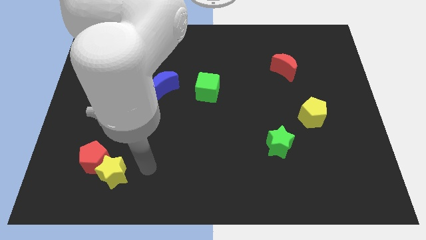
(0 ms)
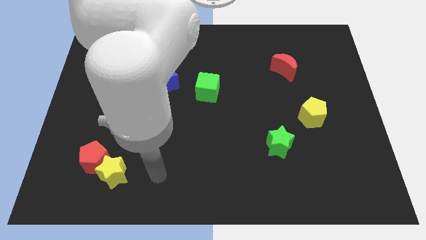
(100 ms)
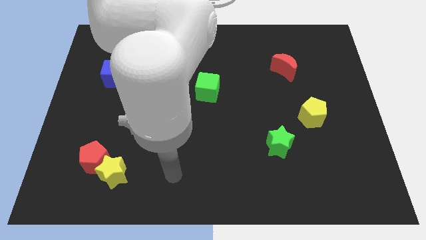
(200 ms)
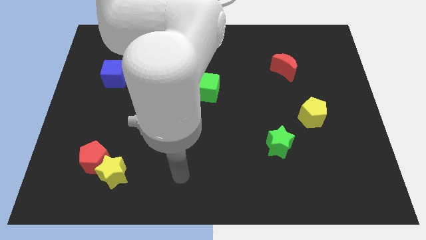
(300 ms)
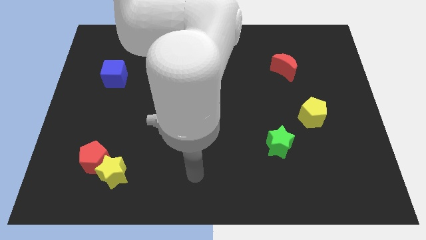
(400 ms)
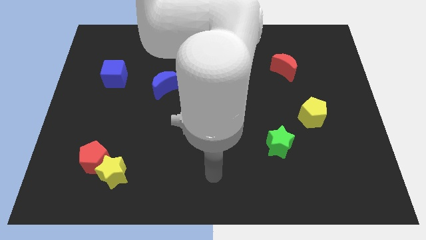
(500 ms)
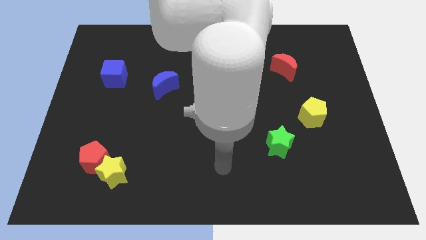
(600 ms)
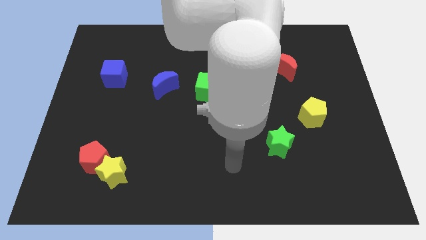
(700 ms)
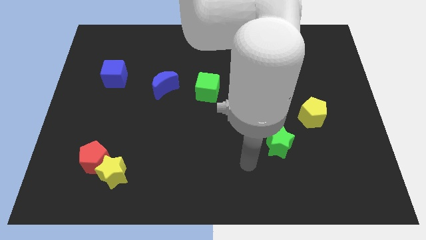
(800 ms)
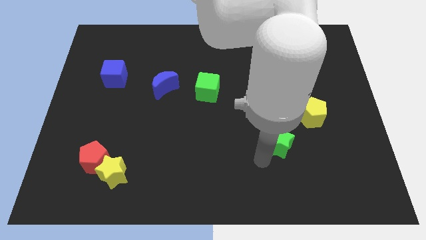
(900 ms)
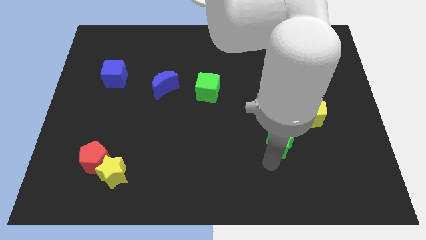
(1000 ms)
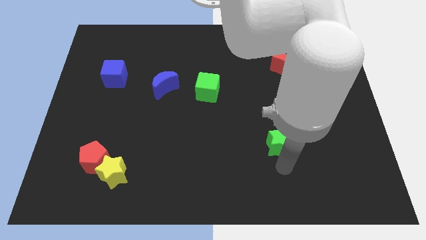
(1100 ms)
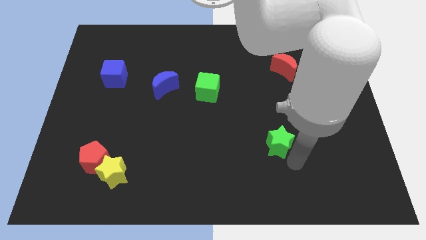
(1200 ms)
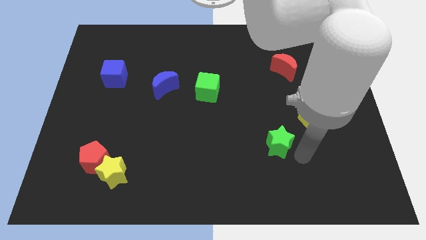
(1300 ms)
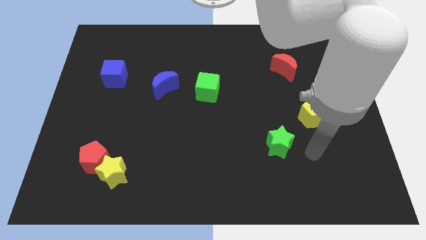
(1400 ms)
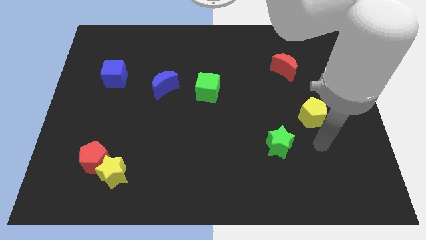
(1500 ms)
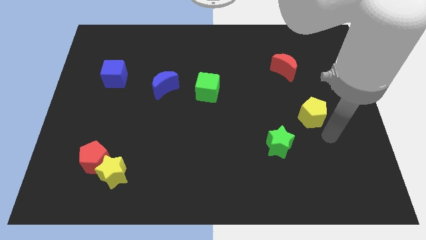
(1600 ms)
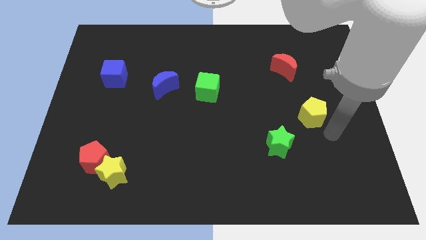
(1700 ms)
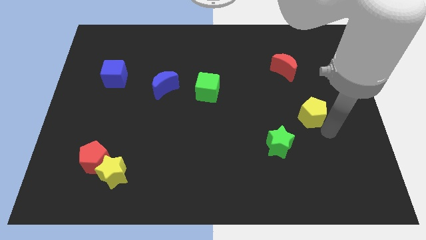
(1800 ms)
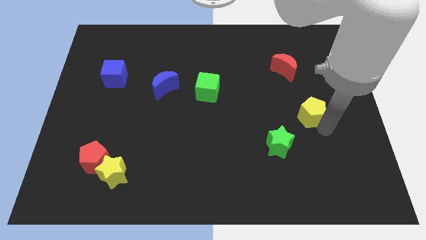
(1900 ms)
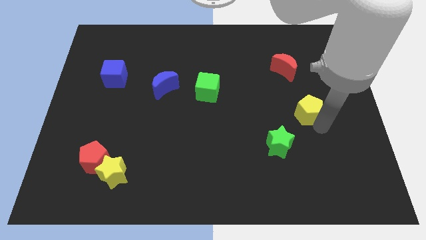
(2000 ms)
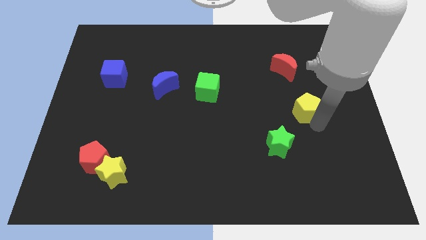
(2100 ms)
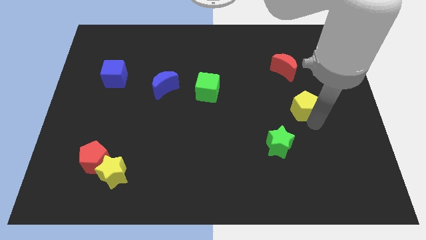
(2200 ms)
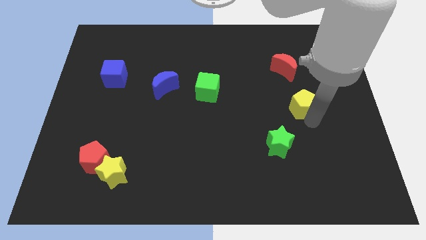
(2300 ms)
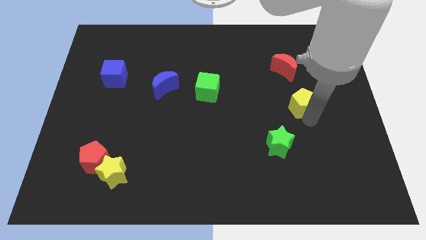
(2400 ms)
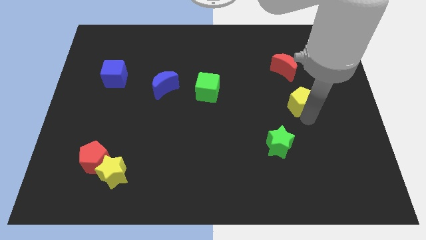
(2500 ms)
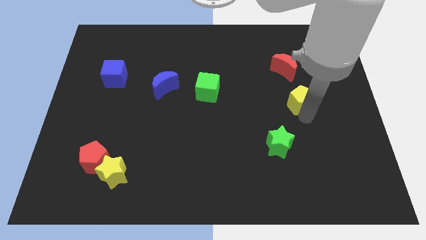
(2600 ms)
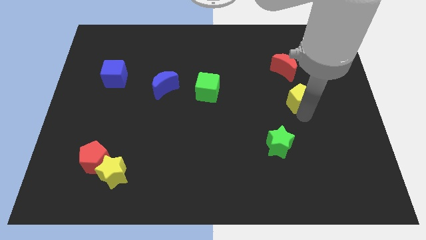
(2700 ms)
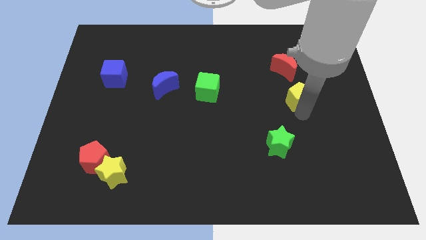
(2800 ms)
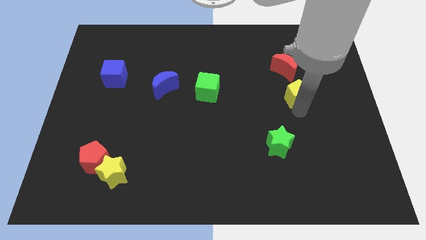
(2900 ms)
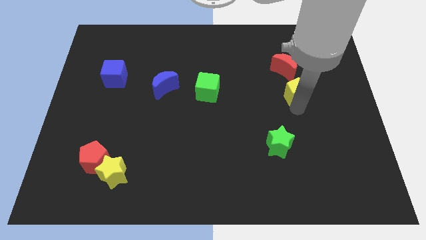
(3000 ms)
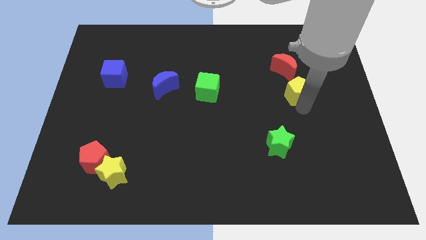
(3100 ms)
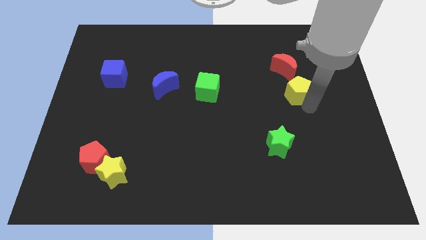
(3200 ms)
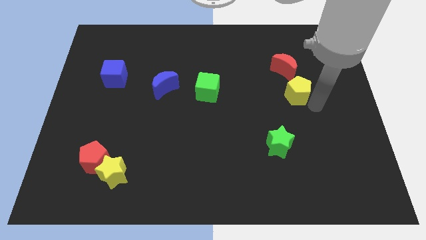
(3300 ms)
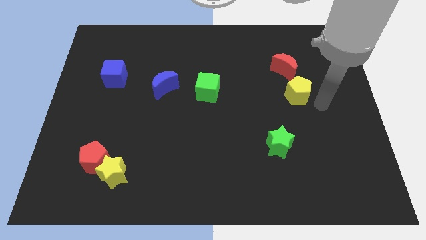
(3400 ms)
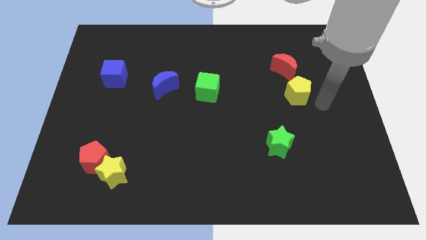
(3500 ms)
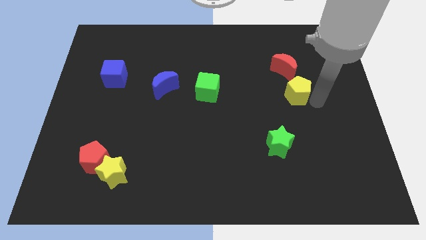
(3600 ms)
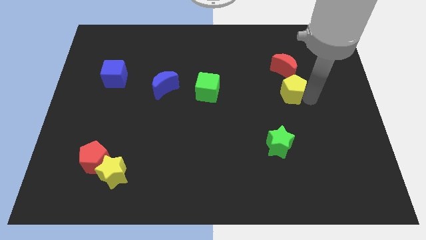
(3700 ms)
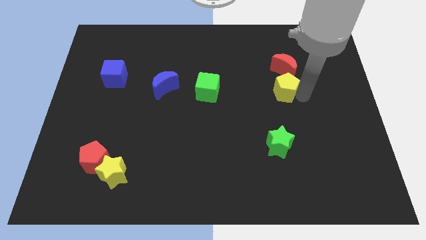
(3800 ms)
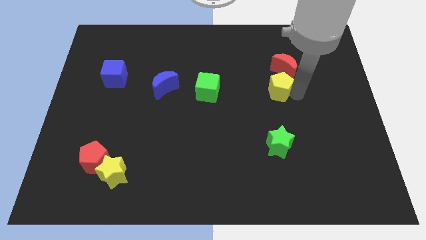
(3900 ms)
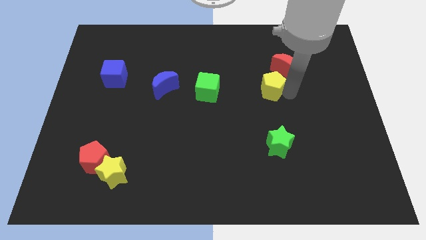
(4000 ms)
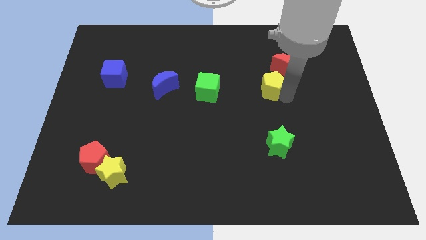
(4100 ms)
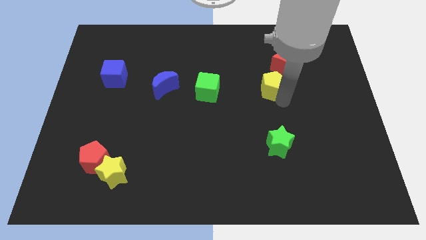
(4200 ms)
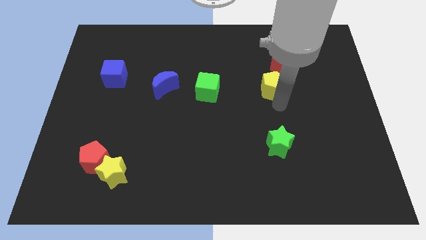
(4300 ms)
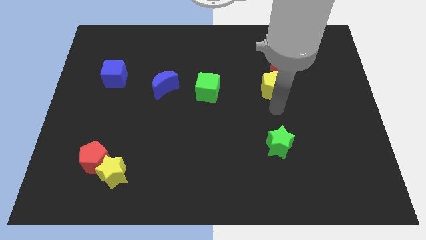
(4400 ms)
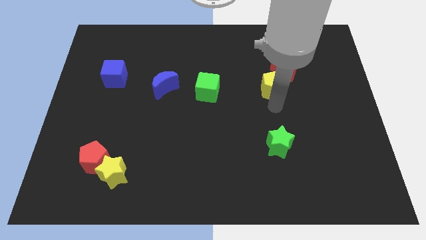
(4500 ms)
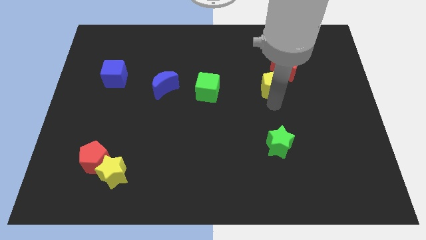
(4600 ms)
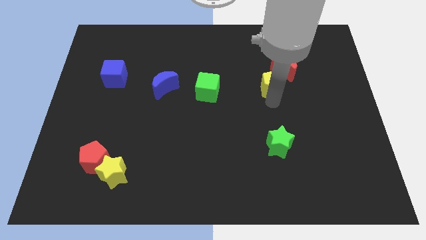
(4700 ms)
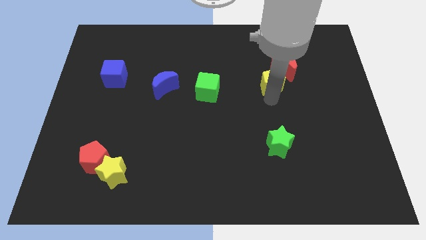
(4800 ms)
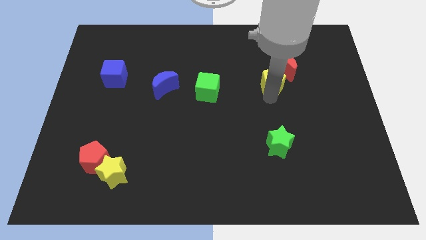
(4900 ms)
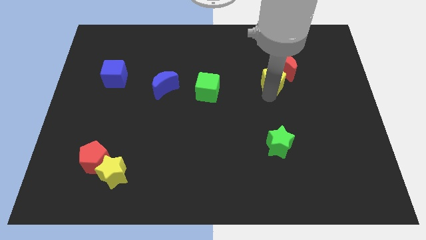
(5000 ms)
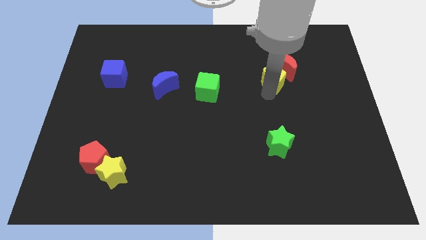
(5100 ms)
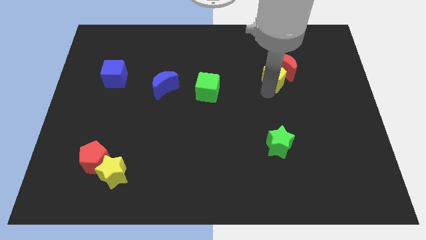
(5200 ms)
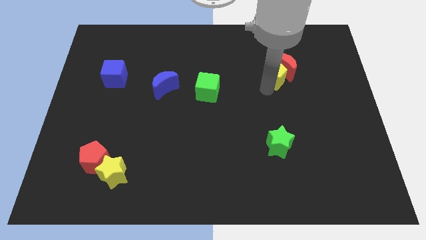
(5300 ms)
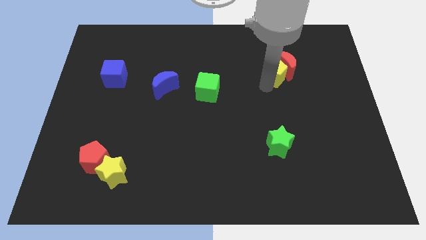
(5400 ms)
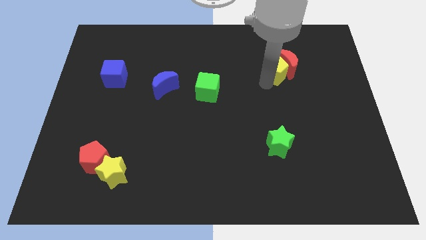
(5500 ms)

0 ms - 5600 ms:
slide the yellow pentagon to the top left side of the red moon

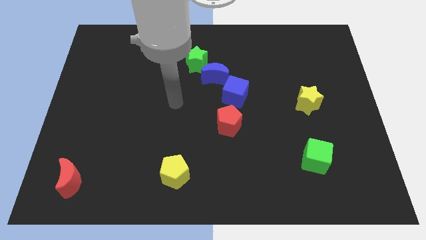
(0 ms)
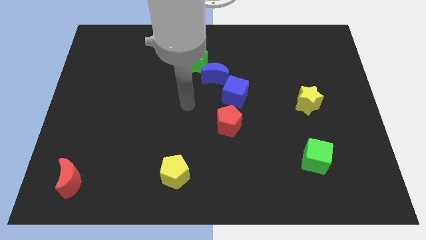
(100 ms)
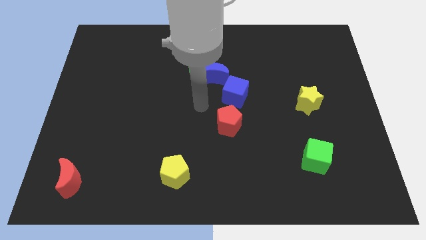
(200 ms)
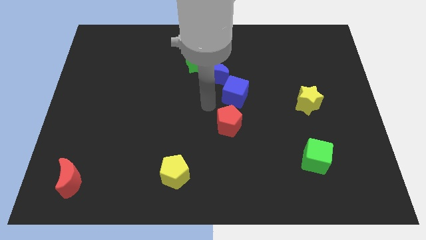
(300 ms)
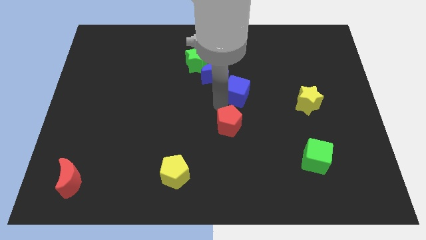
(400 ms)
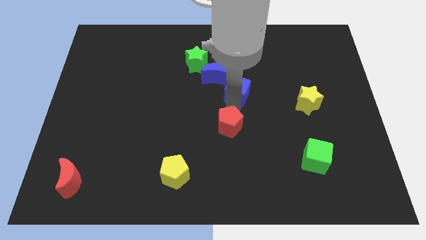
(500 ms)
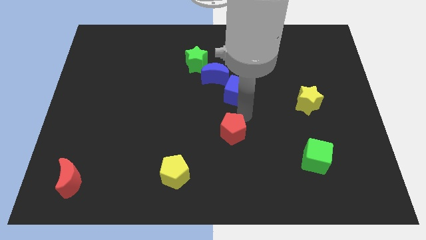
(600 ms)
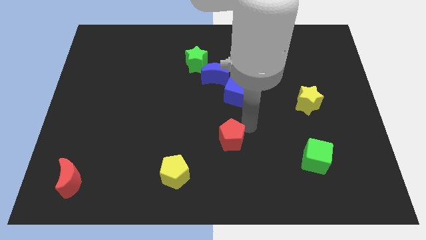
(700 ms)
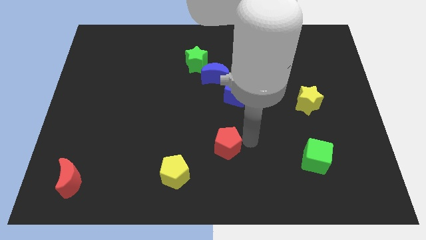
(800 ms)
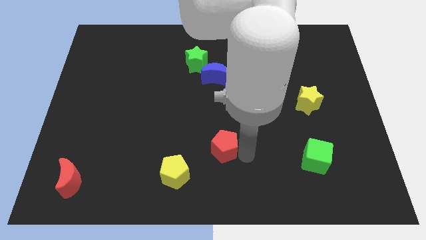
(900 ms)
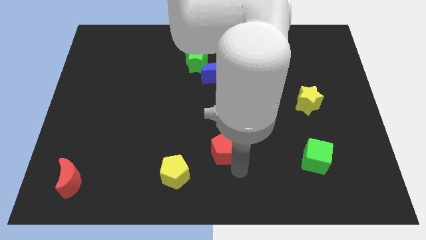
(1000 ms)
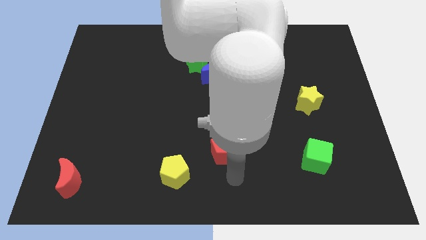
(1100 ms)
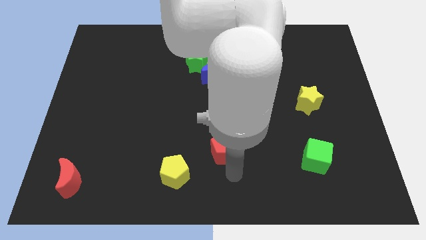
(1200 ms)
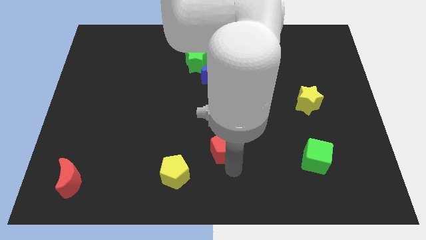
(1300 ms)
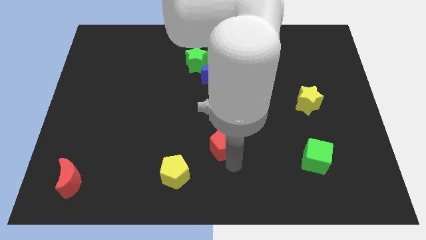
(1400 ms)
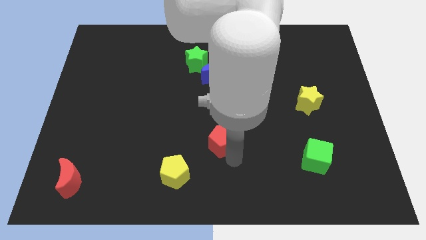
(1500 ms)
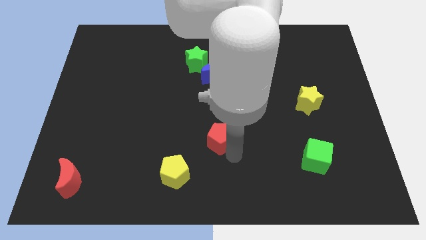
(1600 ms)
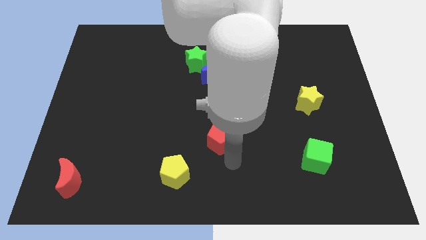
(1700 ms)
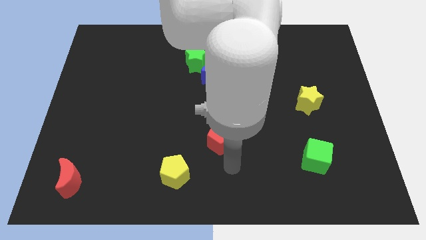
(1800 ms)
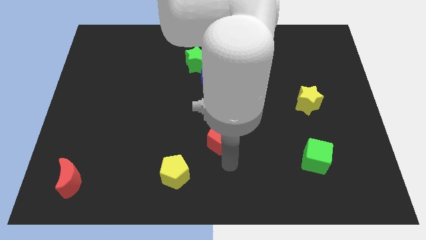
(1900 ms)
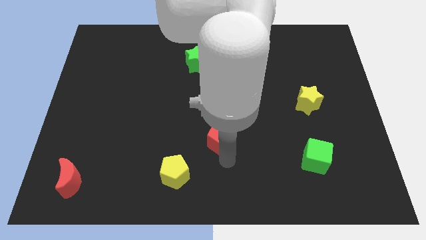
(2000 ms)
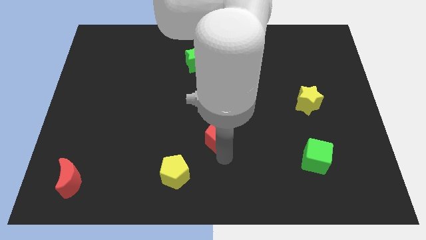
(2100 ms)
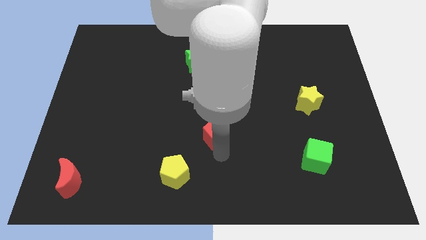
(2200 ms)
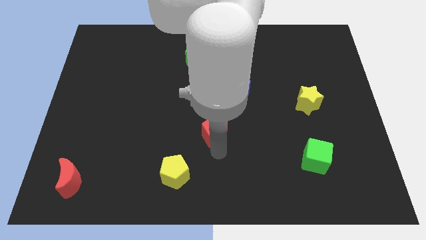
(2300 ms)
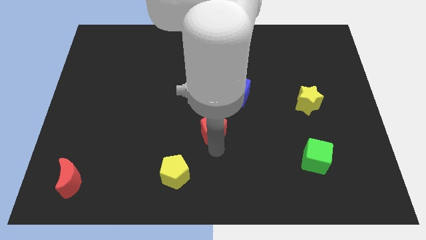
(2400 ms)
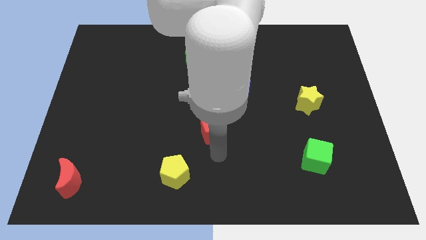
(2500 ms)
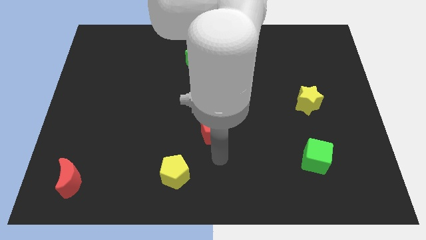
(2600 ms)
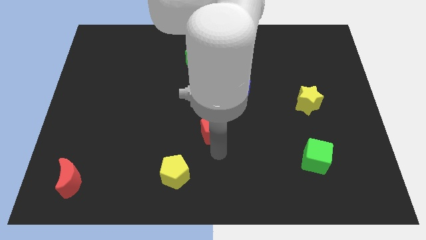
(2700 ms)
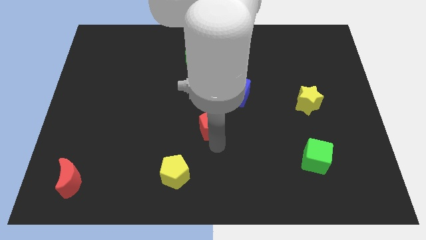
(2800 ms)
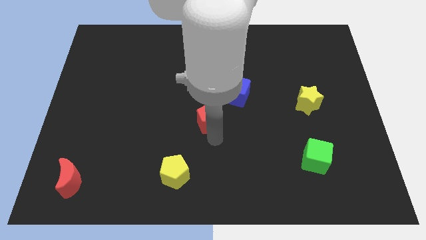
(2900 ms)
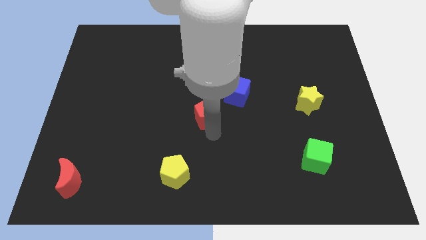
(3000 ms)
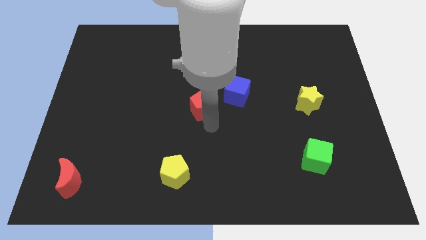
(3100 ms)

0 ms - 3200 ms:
put the red pentagon just left of the blue cube
